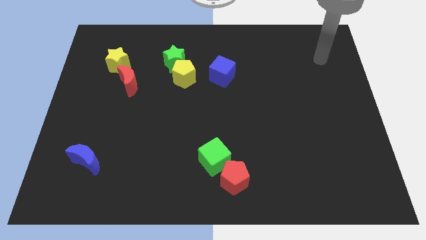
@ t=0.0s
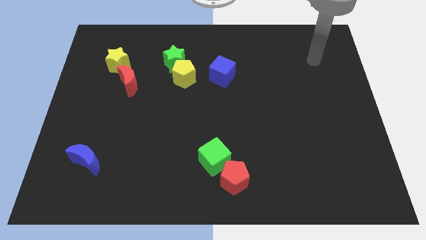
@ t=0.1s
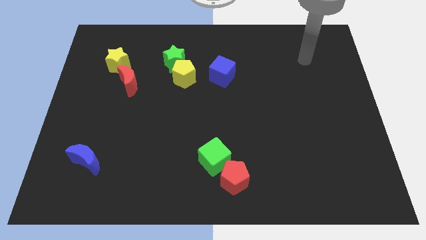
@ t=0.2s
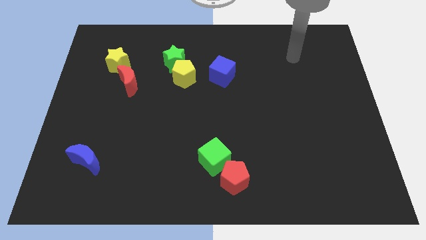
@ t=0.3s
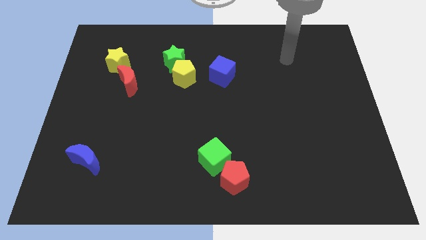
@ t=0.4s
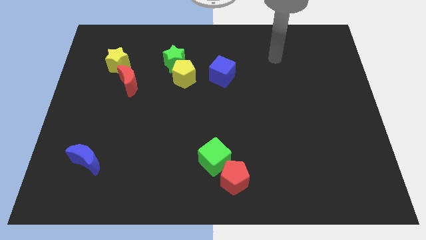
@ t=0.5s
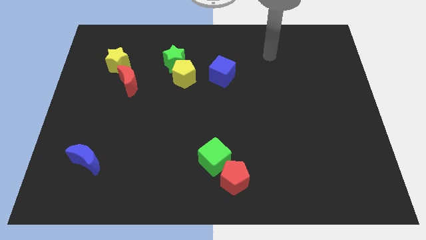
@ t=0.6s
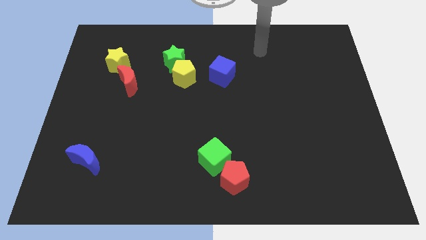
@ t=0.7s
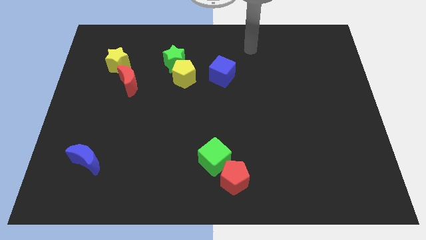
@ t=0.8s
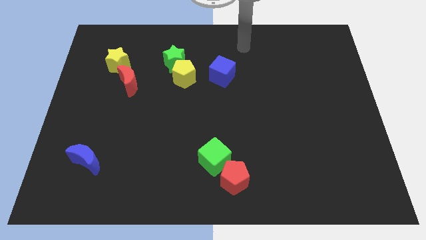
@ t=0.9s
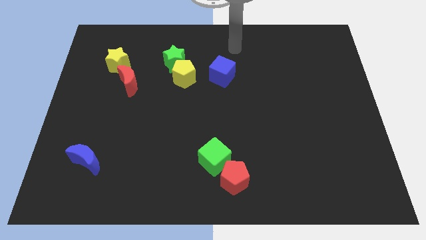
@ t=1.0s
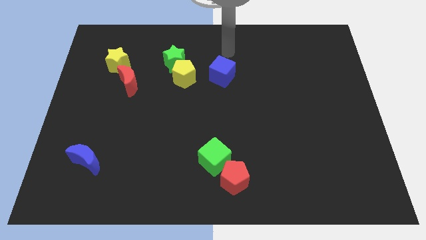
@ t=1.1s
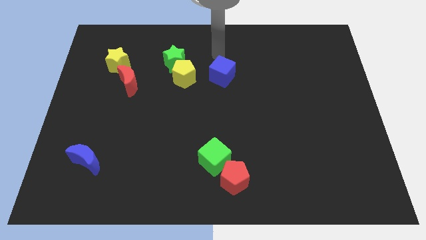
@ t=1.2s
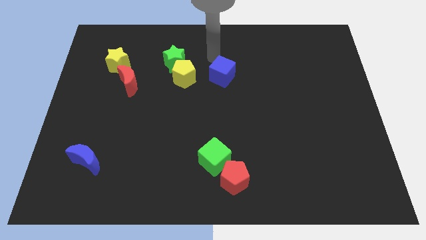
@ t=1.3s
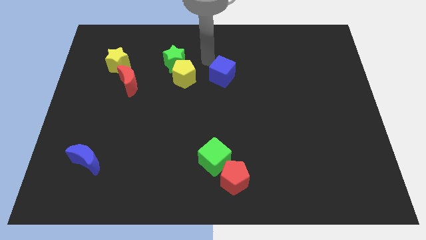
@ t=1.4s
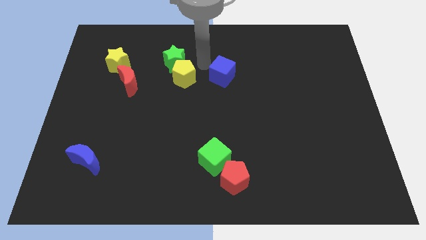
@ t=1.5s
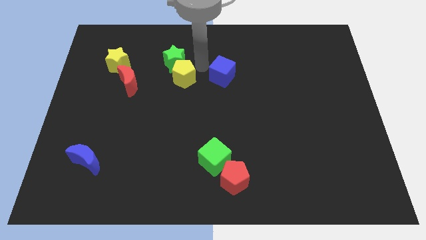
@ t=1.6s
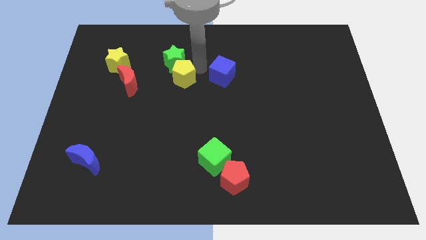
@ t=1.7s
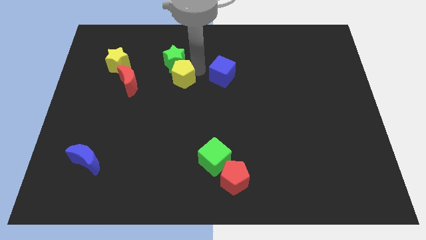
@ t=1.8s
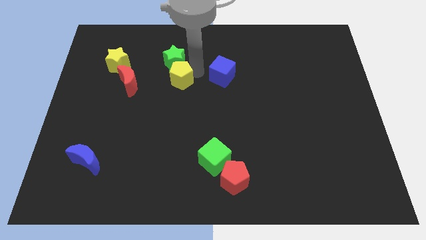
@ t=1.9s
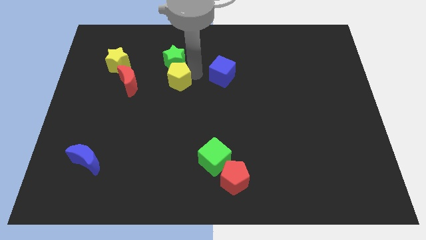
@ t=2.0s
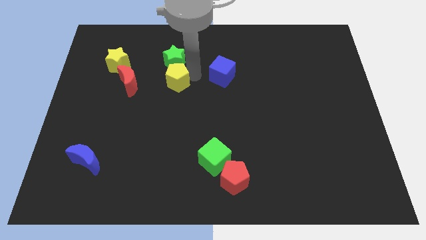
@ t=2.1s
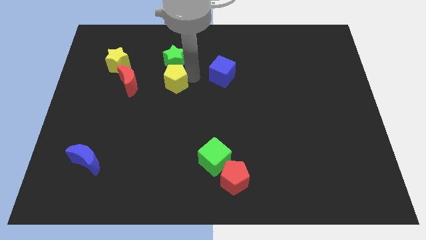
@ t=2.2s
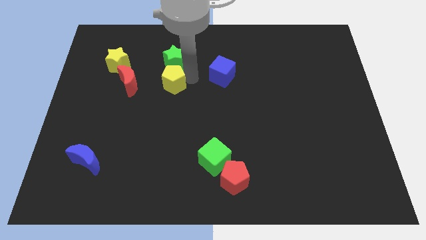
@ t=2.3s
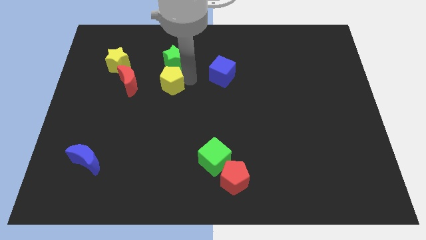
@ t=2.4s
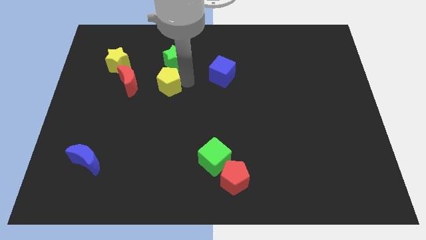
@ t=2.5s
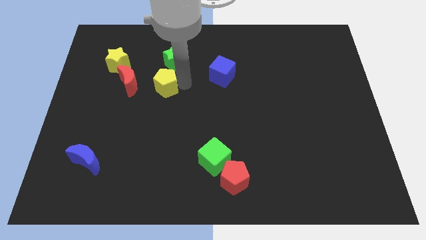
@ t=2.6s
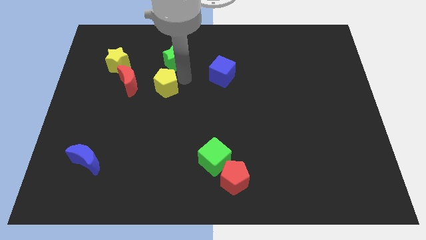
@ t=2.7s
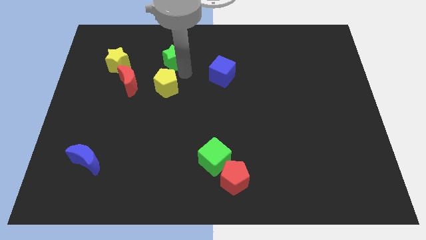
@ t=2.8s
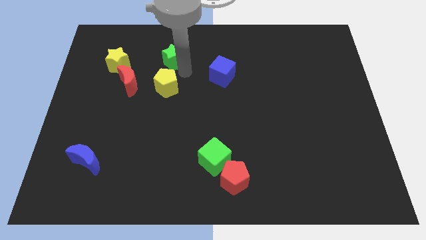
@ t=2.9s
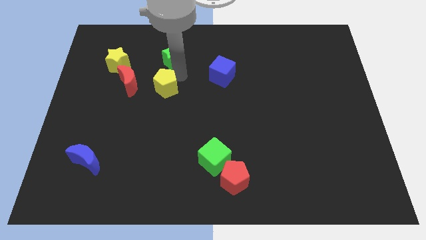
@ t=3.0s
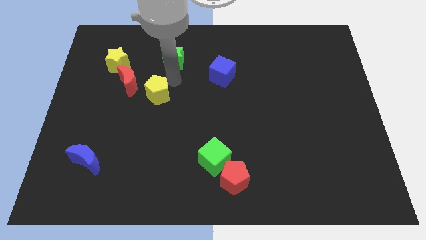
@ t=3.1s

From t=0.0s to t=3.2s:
move the yellow pentagon a little bit downwards and to the left

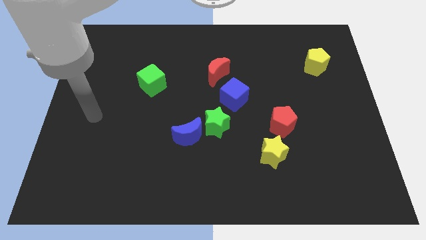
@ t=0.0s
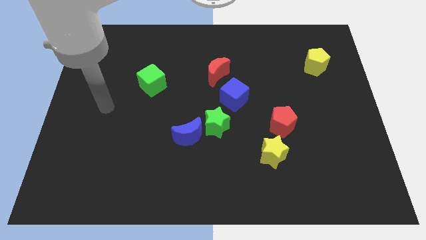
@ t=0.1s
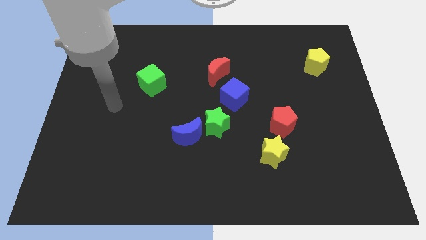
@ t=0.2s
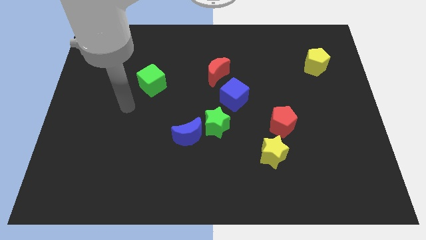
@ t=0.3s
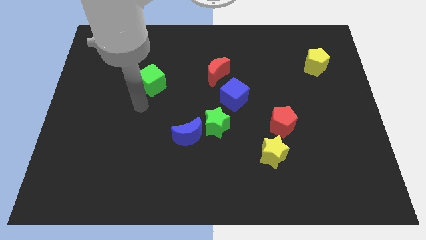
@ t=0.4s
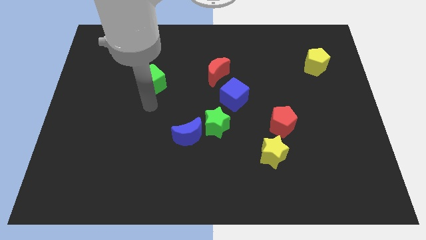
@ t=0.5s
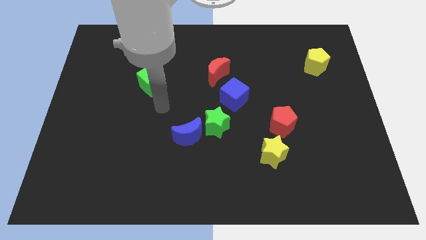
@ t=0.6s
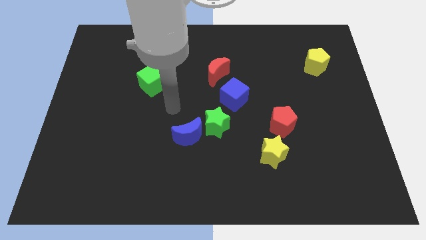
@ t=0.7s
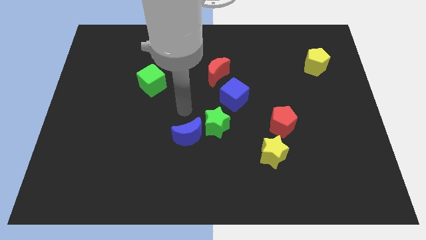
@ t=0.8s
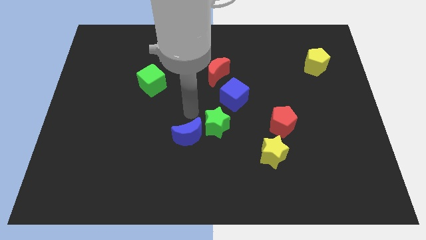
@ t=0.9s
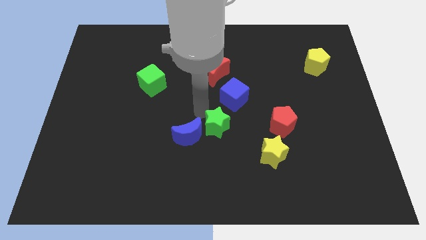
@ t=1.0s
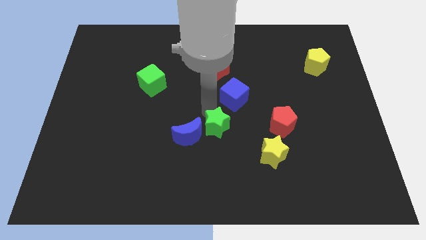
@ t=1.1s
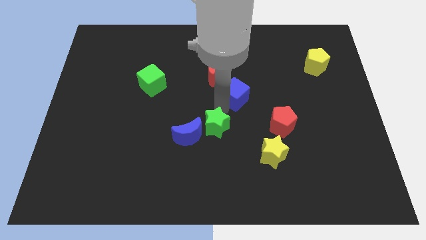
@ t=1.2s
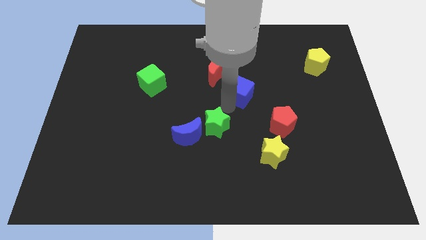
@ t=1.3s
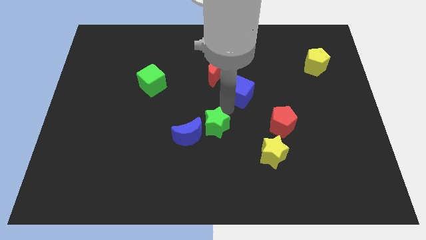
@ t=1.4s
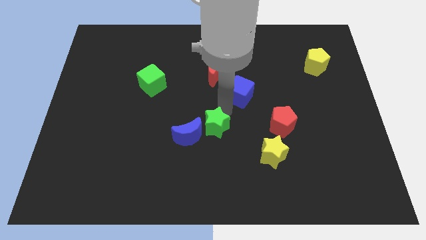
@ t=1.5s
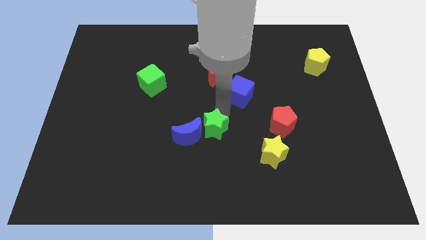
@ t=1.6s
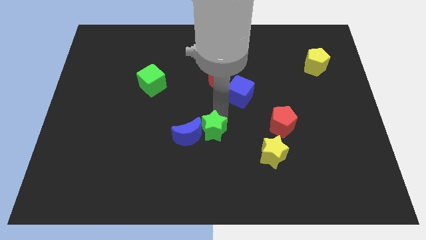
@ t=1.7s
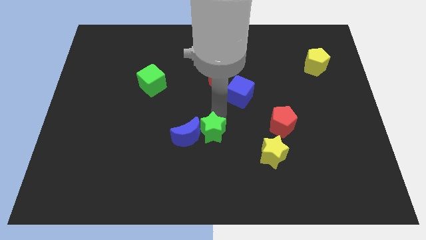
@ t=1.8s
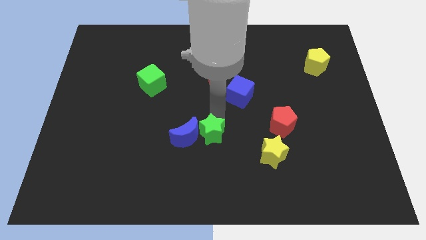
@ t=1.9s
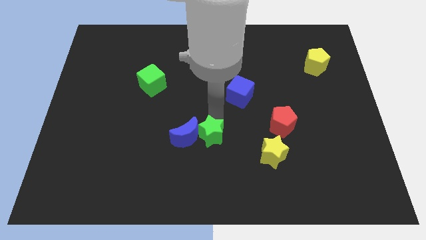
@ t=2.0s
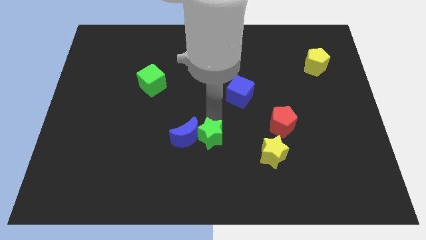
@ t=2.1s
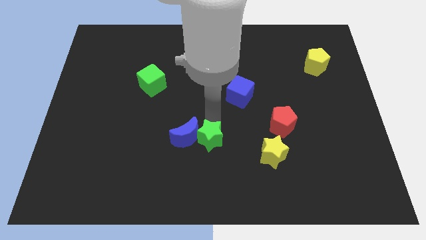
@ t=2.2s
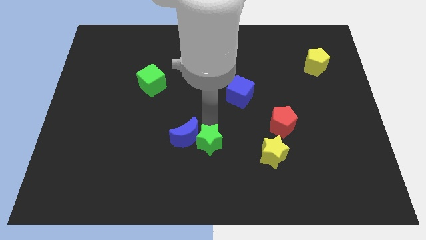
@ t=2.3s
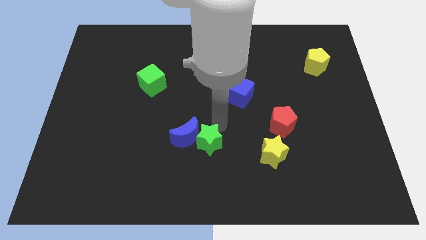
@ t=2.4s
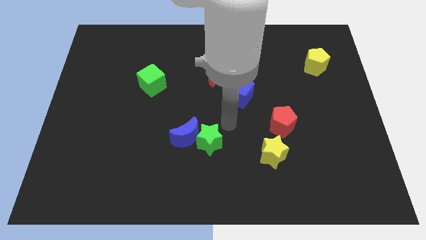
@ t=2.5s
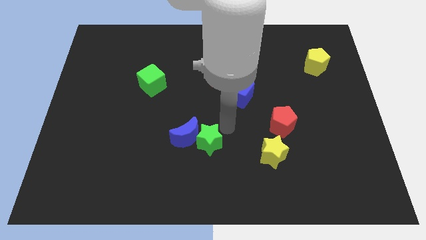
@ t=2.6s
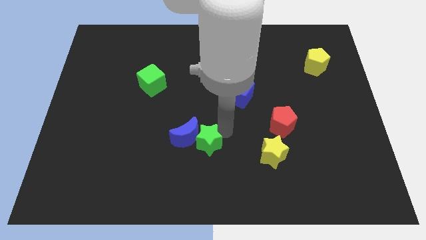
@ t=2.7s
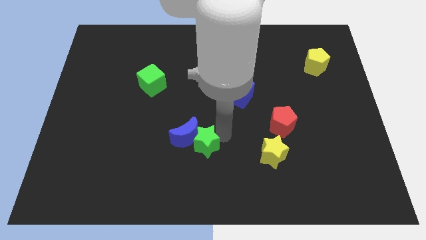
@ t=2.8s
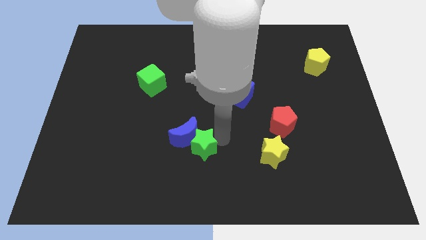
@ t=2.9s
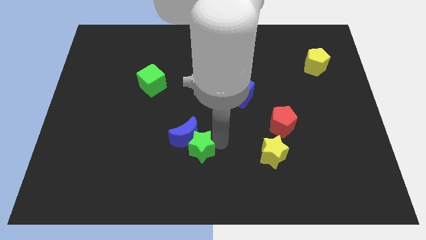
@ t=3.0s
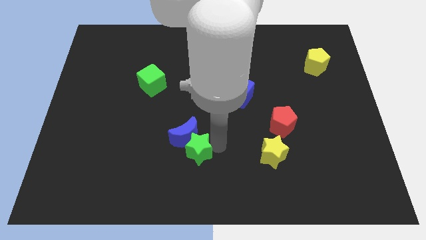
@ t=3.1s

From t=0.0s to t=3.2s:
push the green star a little bit downwards and then to the left

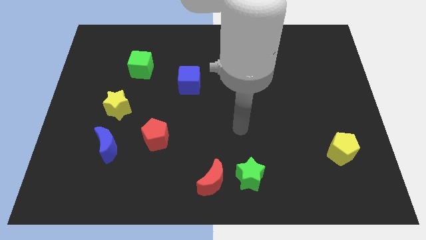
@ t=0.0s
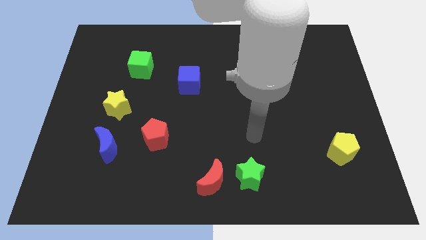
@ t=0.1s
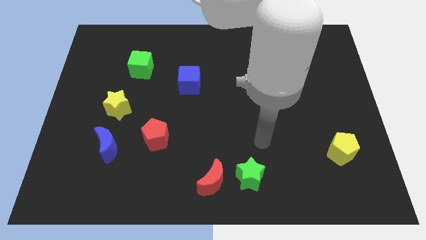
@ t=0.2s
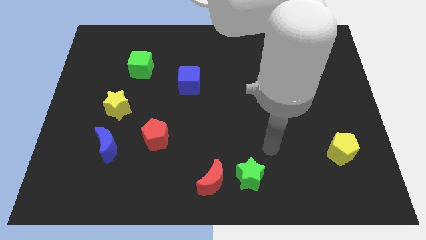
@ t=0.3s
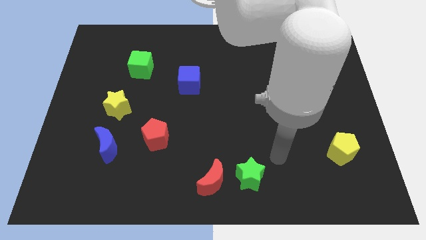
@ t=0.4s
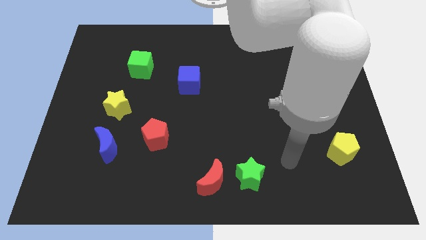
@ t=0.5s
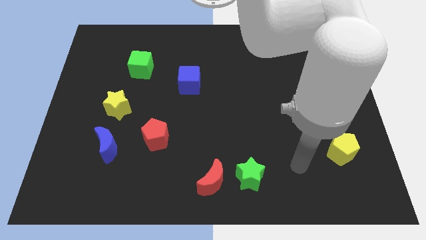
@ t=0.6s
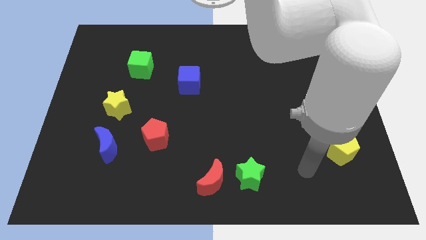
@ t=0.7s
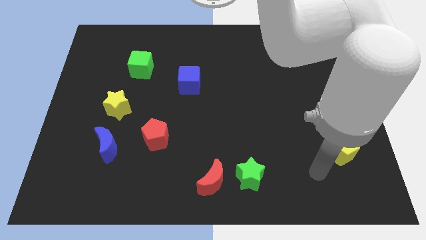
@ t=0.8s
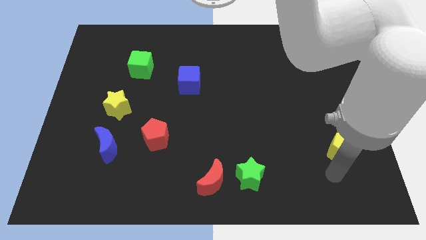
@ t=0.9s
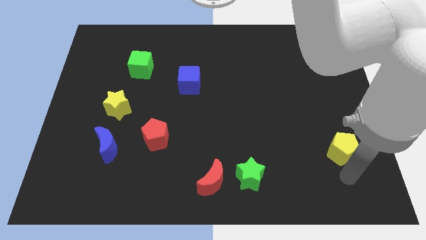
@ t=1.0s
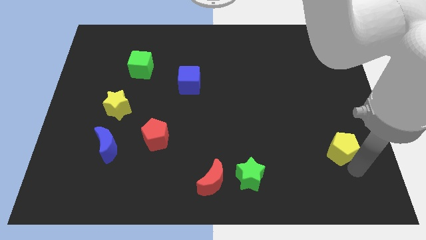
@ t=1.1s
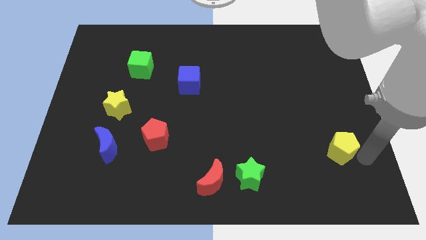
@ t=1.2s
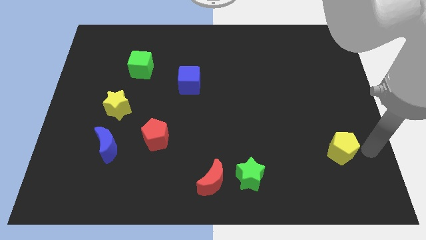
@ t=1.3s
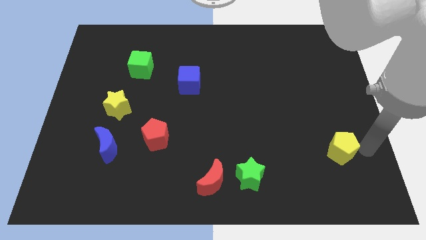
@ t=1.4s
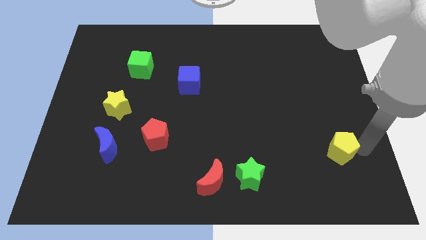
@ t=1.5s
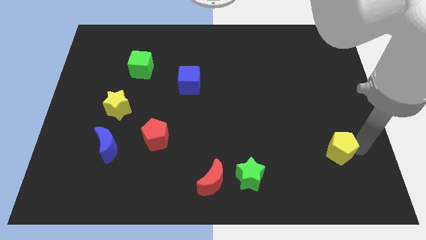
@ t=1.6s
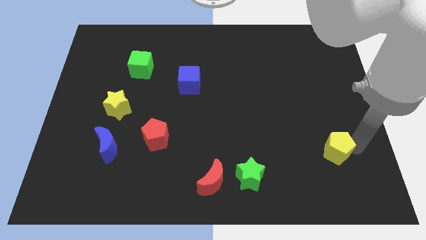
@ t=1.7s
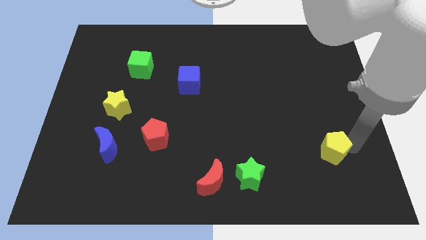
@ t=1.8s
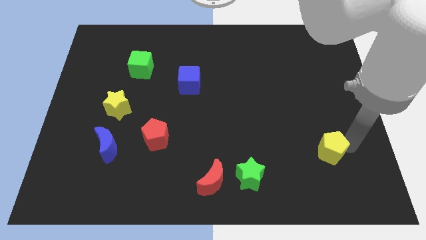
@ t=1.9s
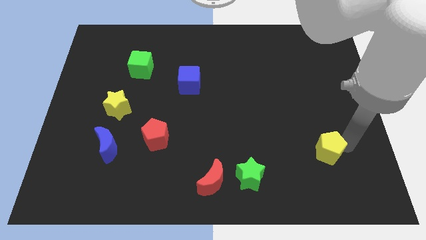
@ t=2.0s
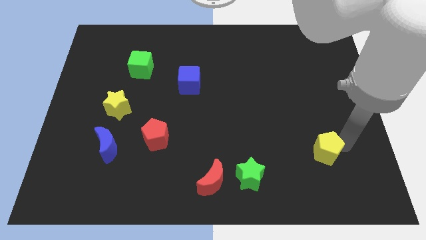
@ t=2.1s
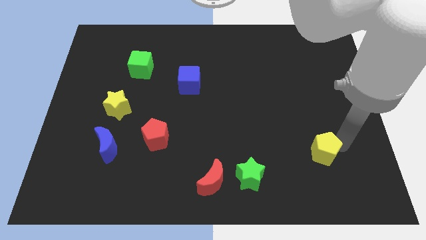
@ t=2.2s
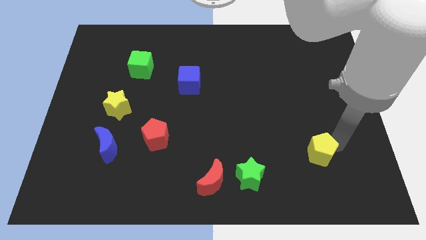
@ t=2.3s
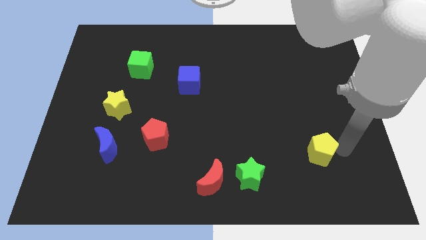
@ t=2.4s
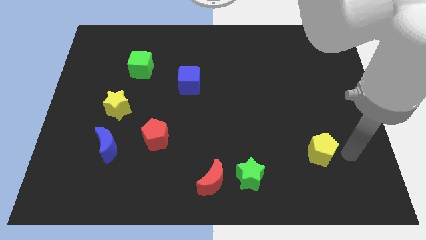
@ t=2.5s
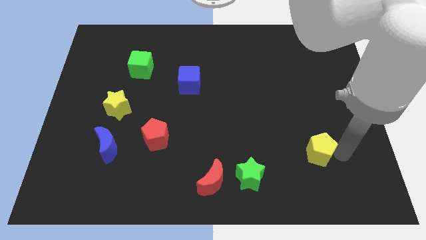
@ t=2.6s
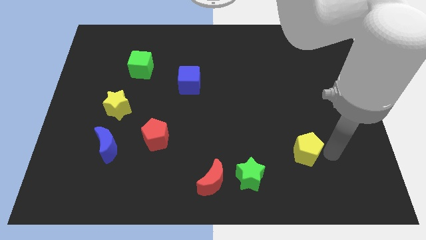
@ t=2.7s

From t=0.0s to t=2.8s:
move the yellow pentagon left slightly
